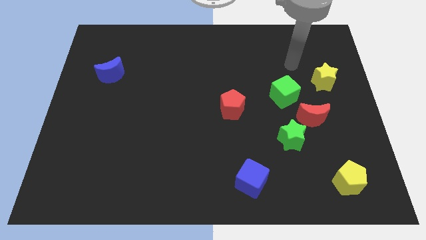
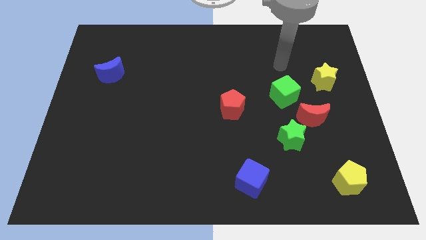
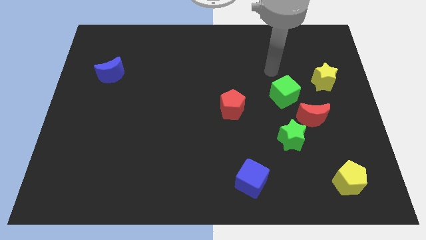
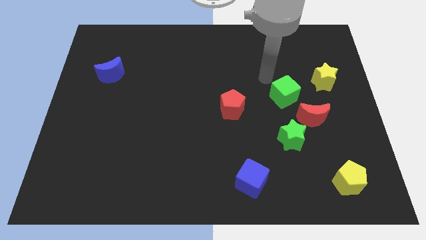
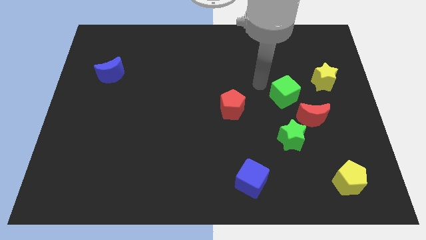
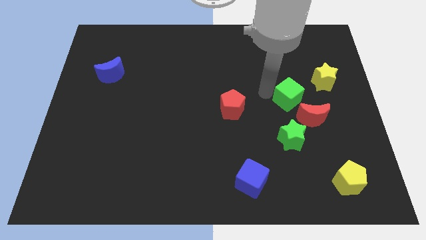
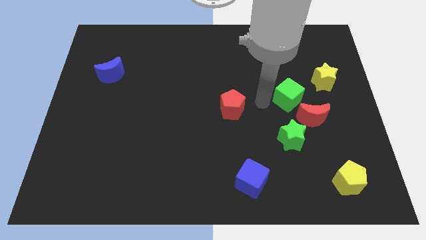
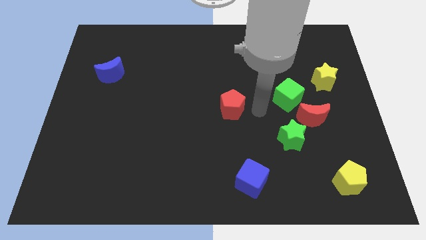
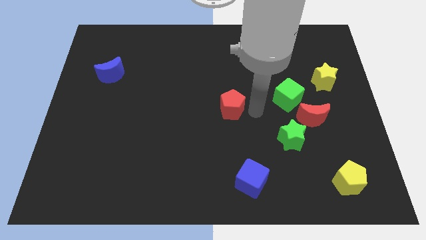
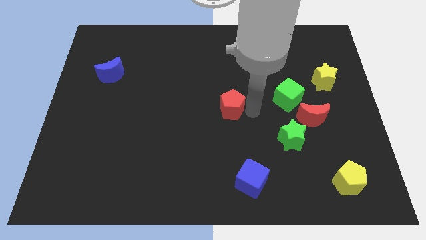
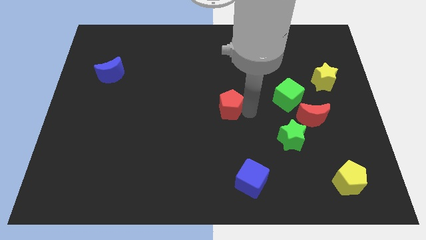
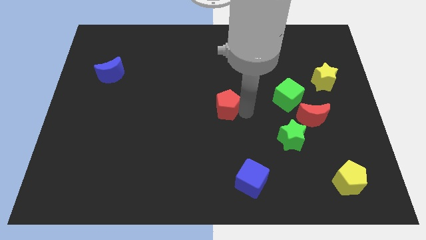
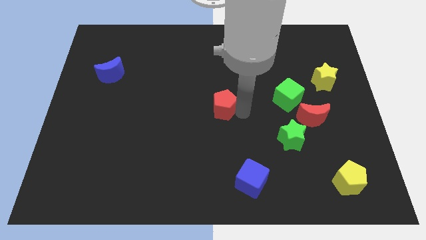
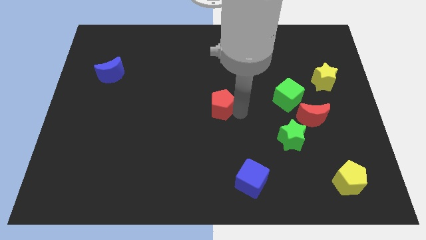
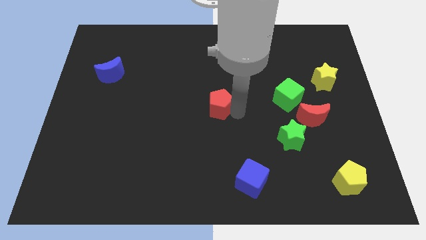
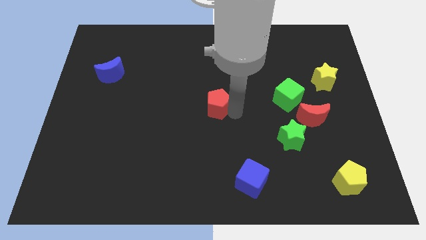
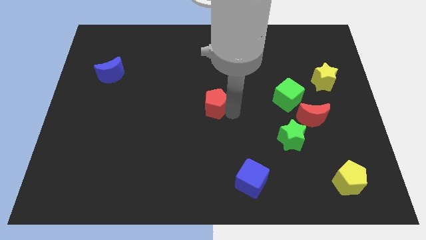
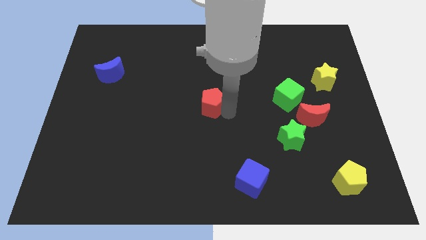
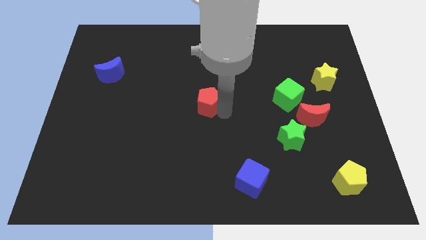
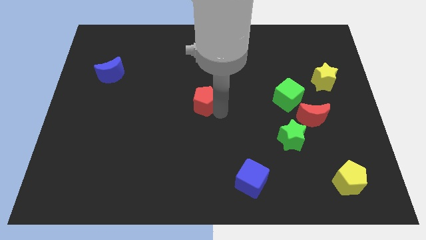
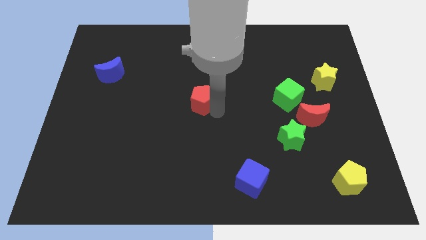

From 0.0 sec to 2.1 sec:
slightly move the red pentagon to the left

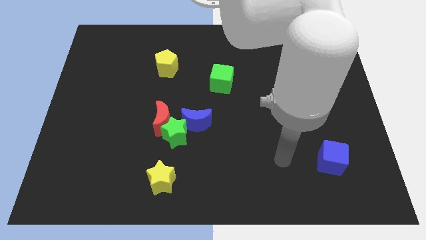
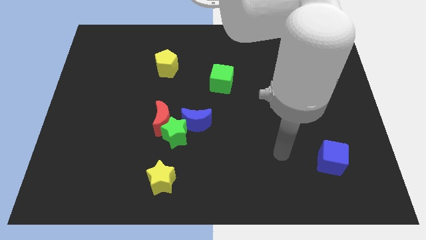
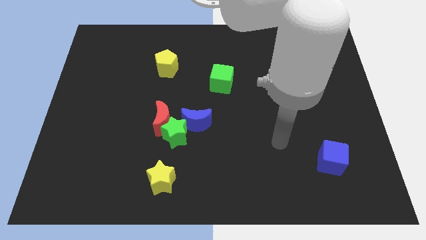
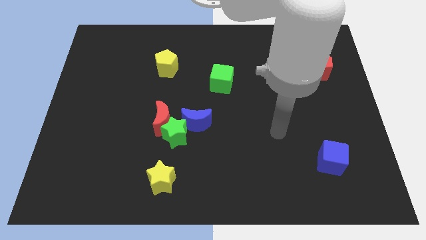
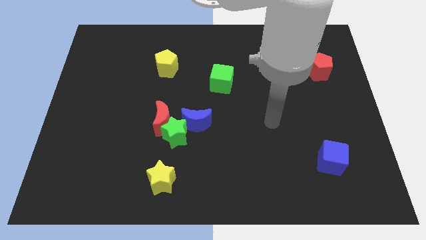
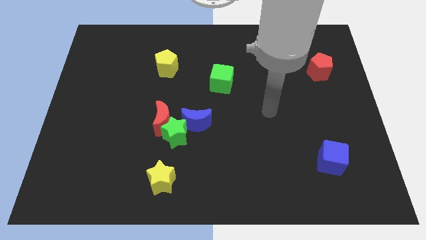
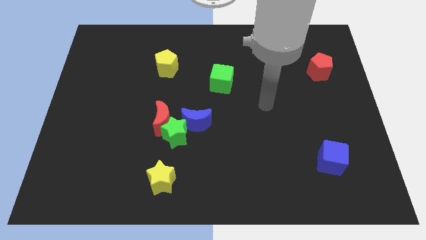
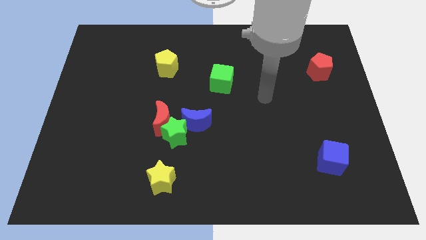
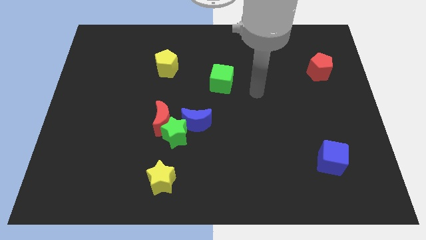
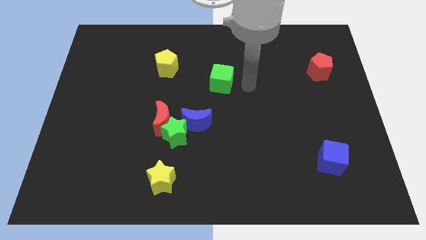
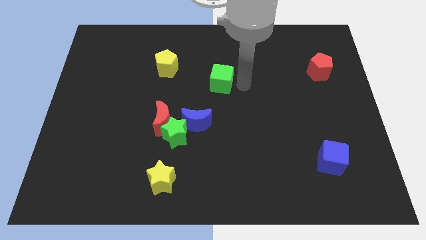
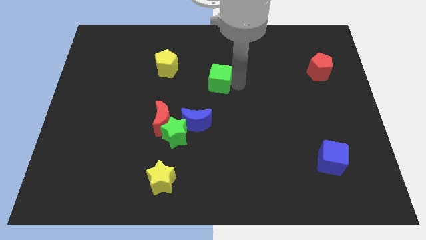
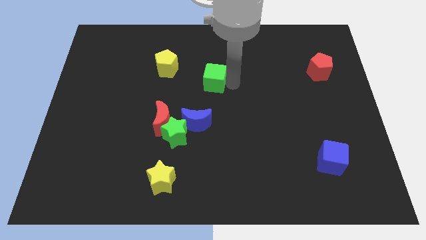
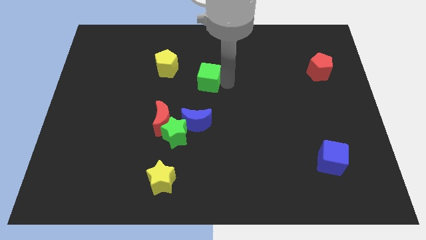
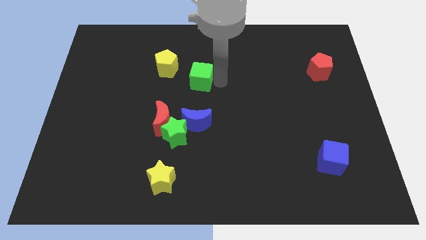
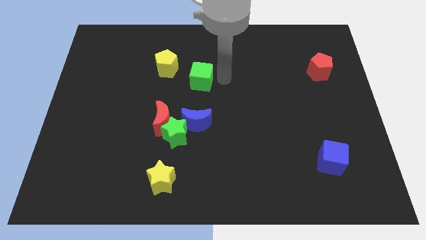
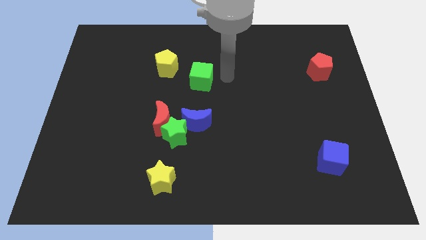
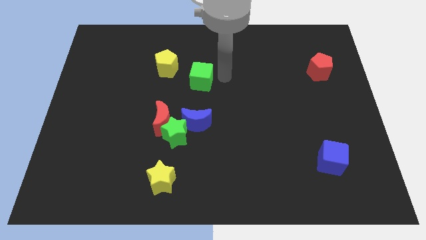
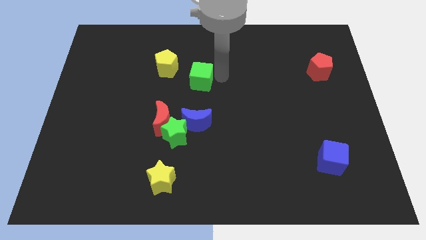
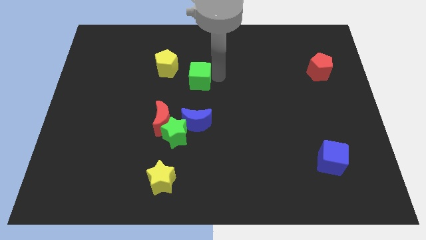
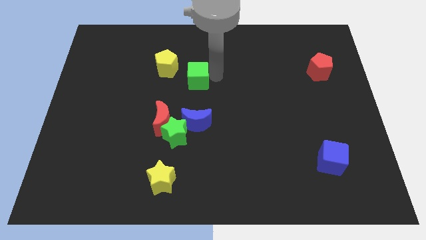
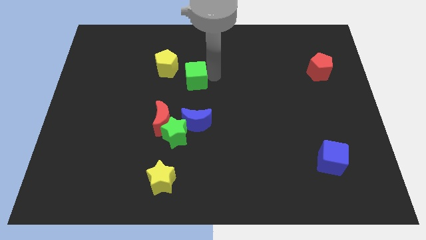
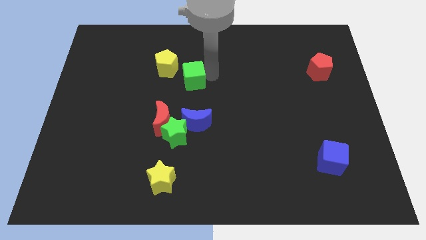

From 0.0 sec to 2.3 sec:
slightly push the green cube left

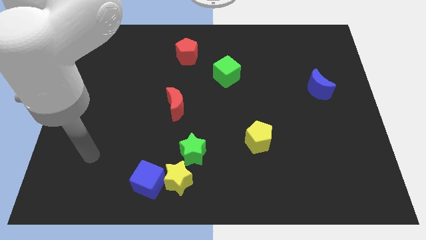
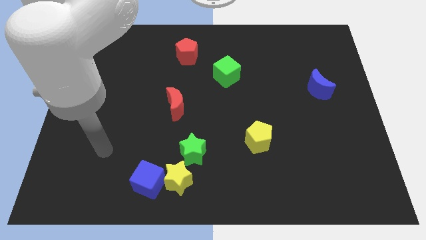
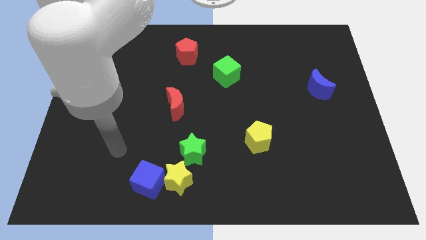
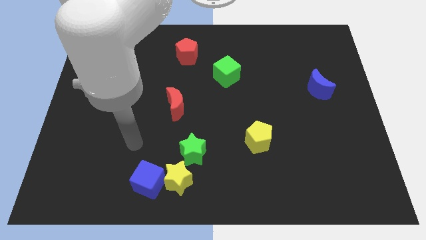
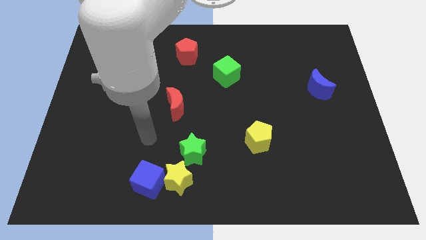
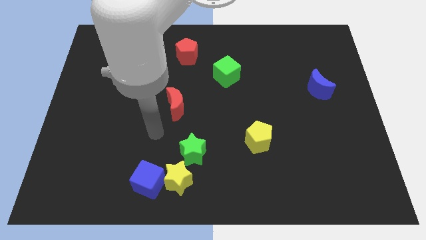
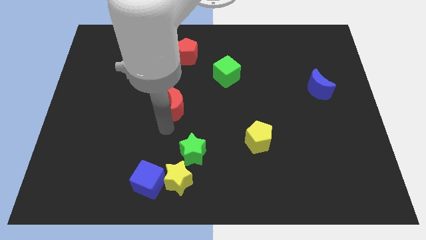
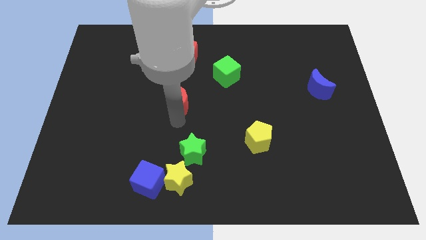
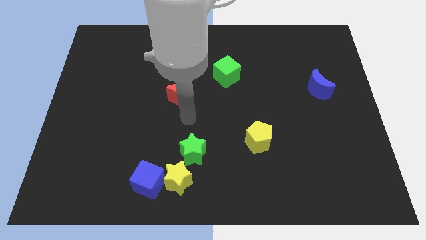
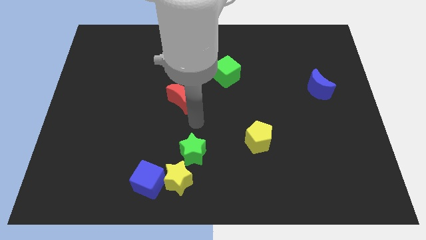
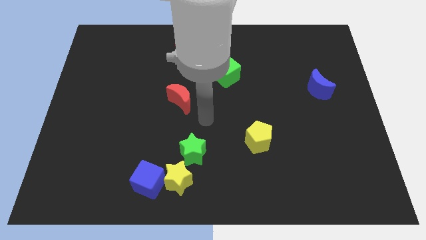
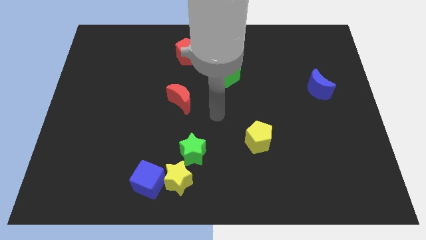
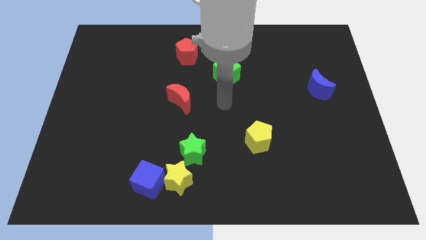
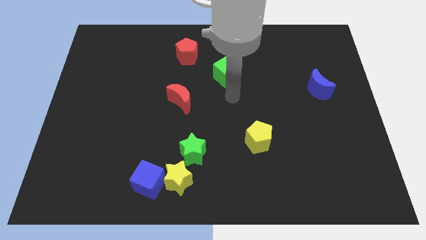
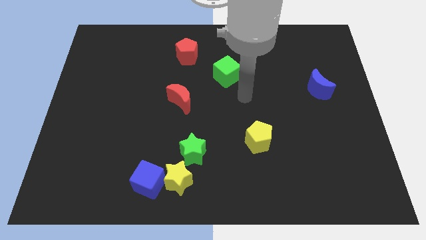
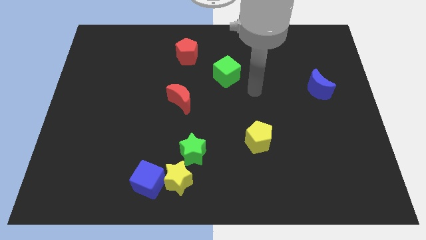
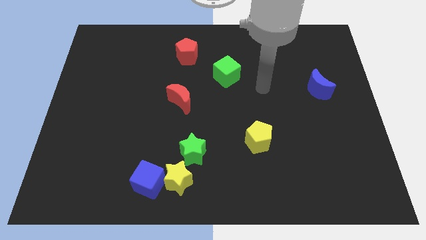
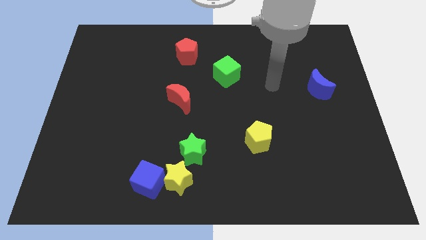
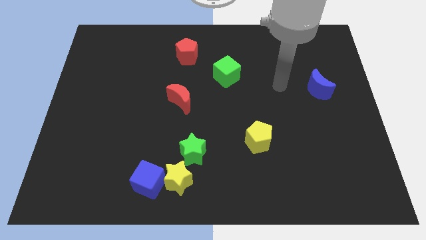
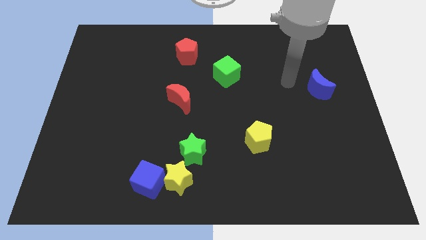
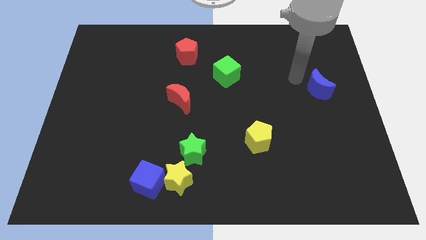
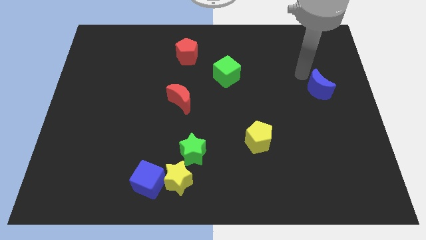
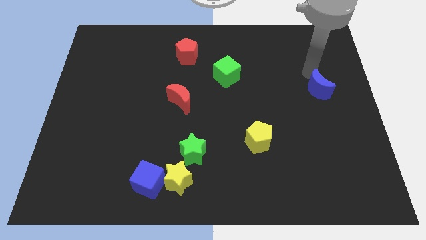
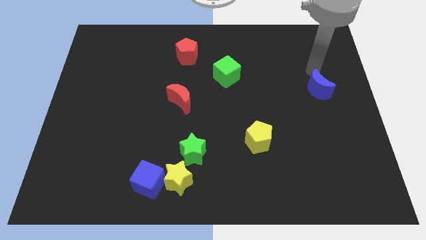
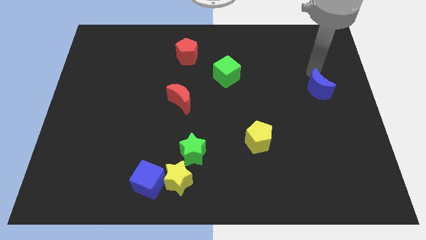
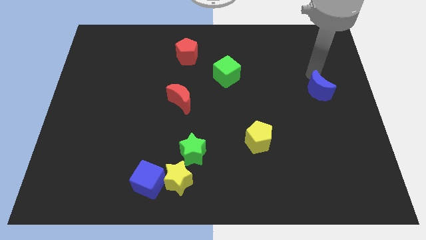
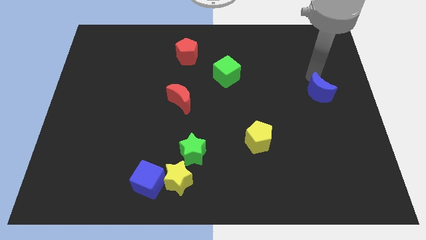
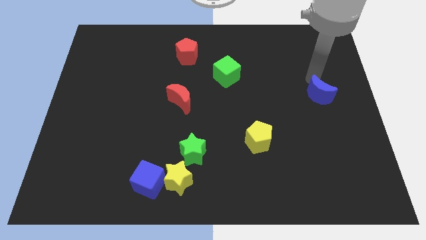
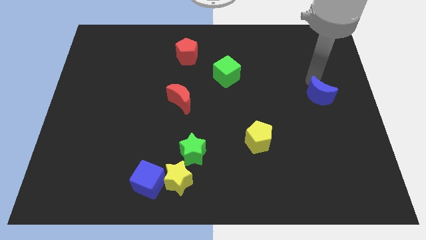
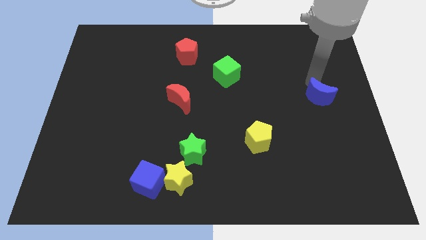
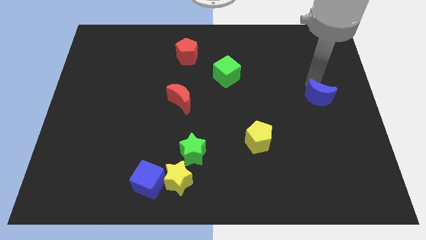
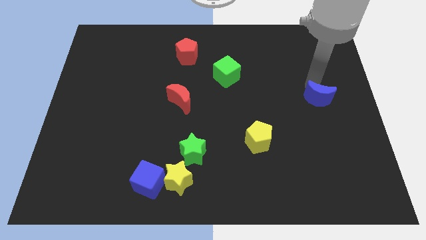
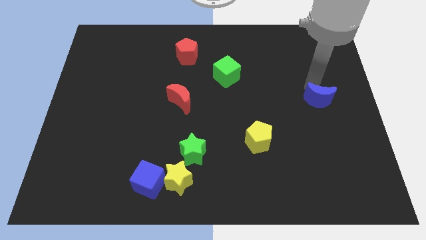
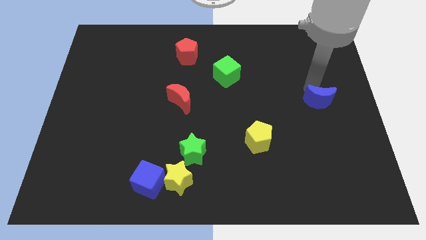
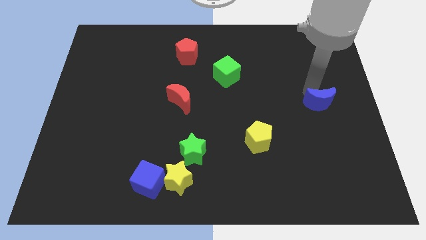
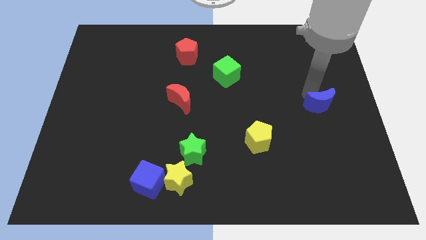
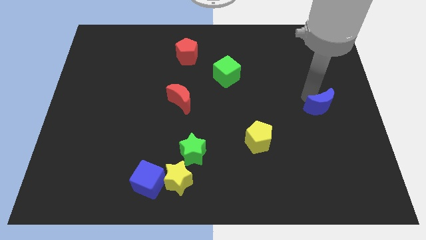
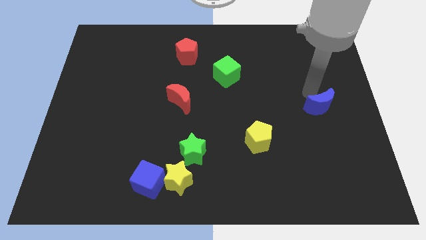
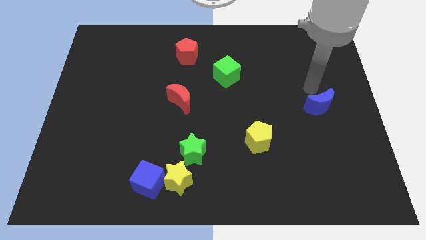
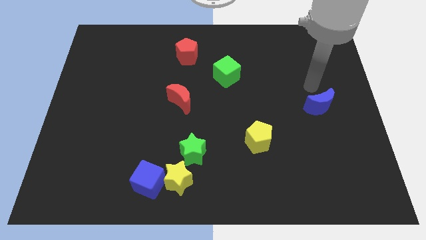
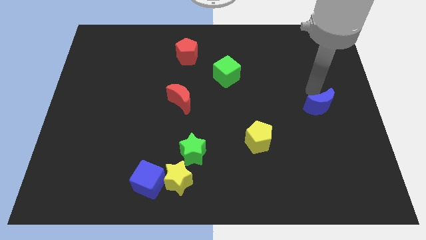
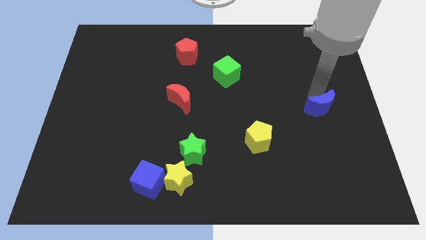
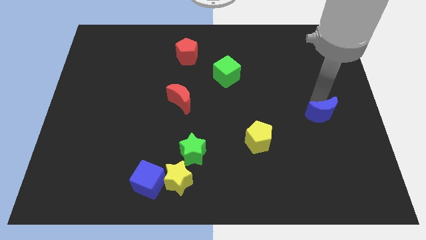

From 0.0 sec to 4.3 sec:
move the blue moon down a little
